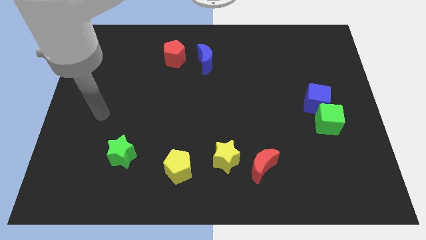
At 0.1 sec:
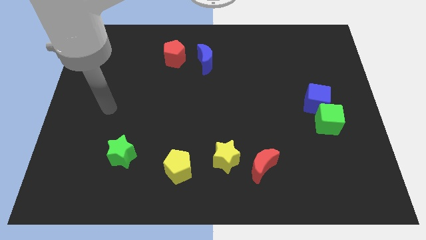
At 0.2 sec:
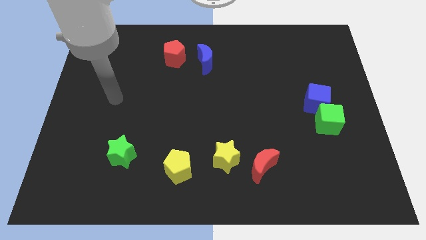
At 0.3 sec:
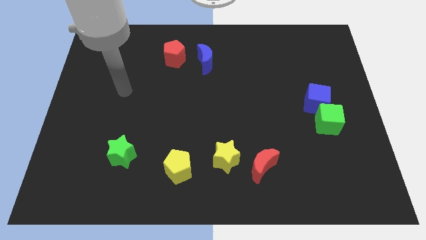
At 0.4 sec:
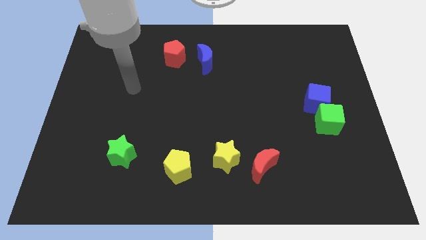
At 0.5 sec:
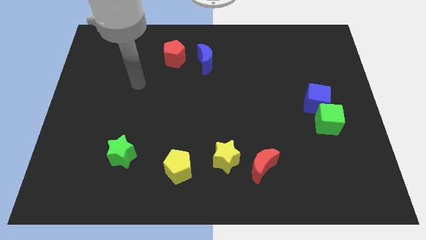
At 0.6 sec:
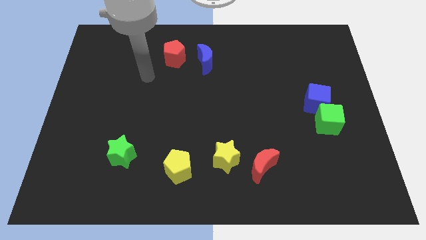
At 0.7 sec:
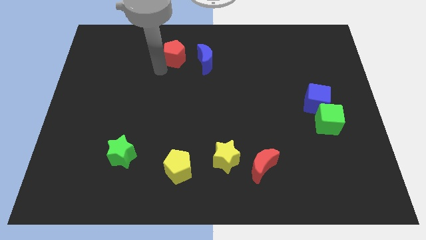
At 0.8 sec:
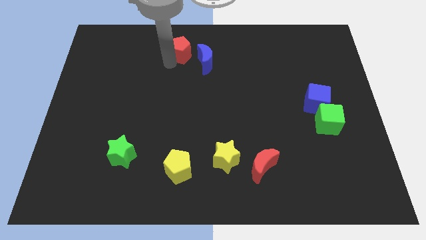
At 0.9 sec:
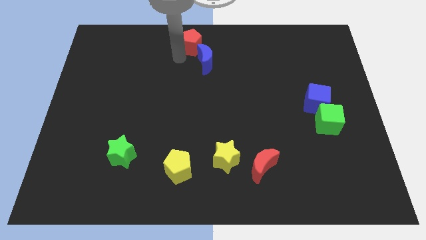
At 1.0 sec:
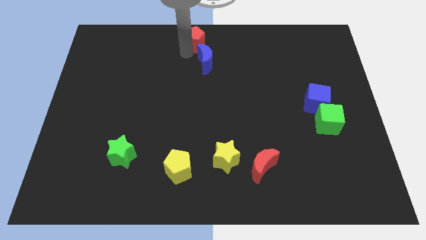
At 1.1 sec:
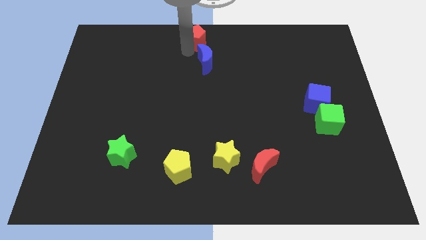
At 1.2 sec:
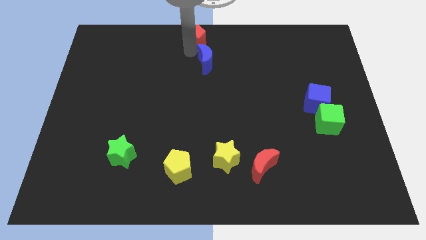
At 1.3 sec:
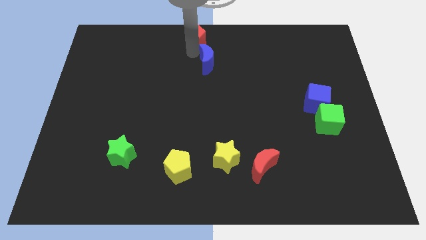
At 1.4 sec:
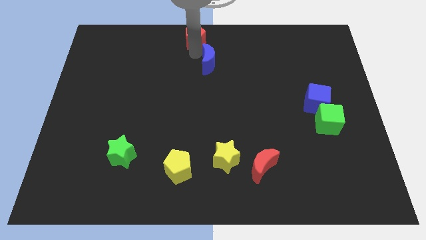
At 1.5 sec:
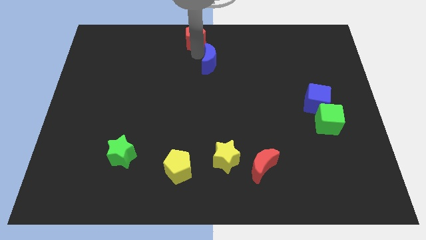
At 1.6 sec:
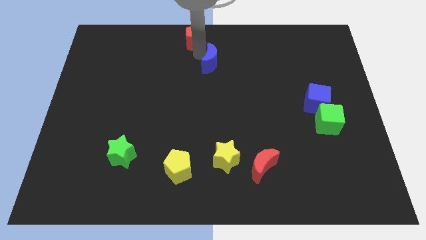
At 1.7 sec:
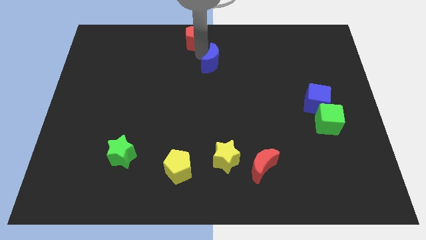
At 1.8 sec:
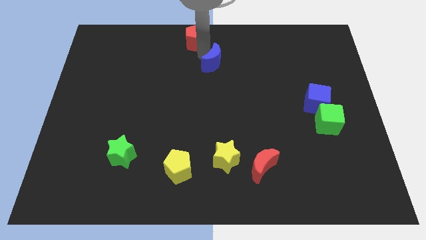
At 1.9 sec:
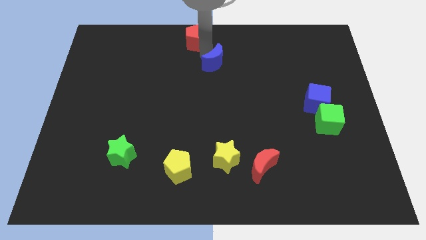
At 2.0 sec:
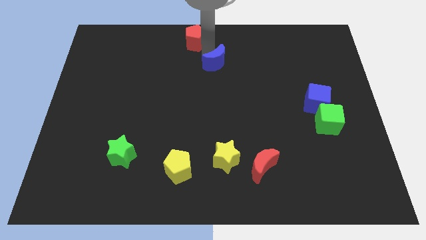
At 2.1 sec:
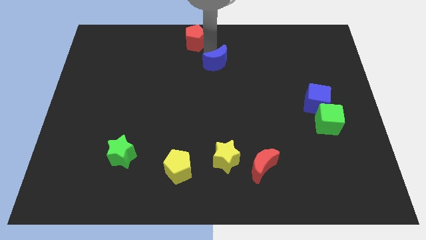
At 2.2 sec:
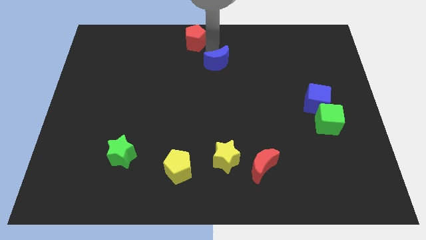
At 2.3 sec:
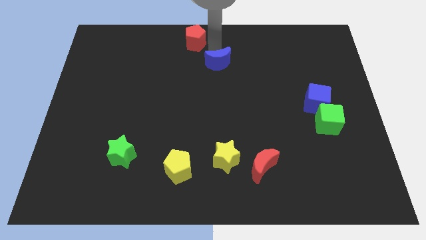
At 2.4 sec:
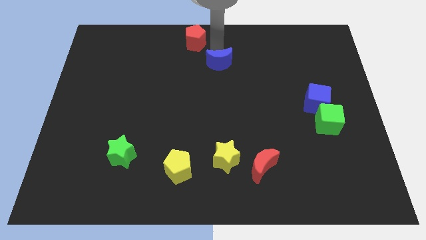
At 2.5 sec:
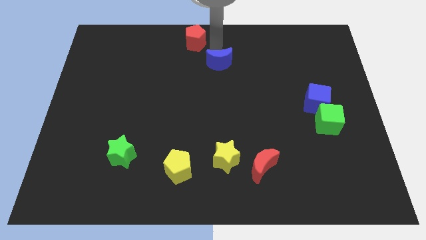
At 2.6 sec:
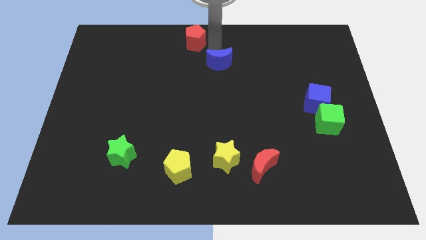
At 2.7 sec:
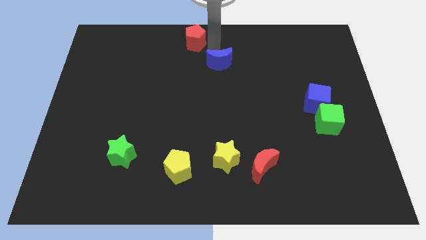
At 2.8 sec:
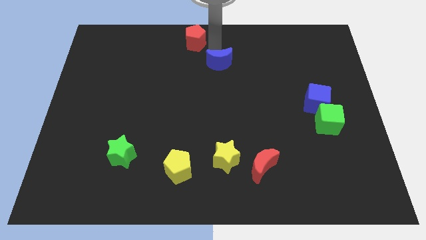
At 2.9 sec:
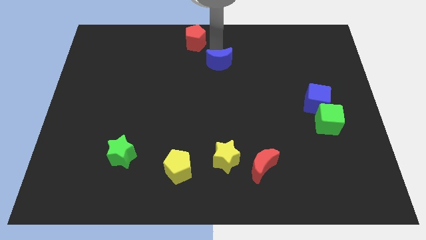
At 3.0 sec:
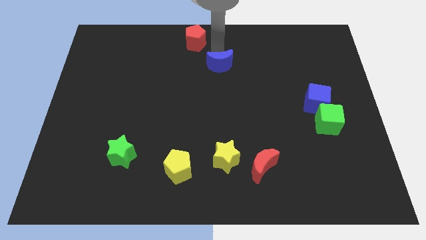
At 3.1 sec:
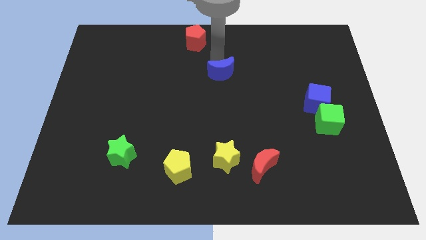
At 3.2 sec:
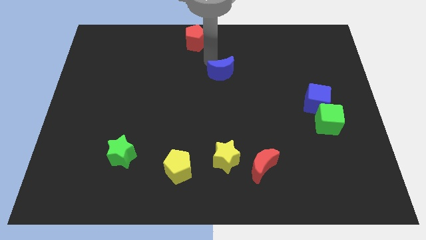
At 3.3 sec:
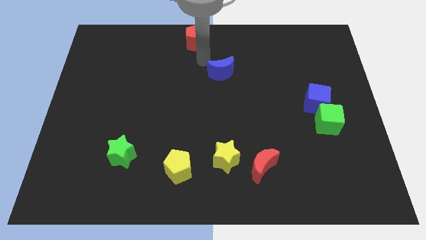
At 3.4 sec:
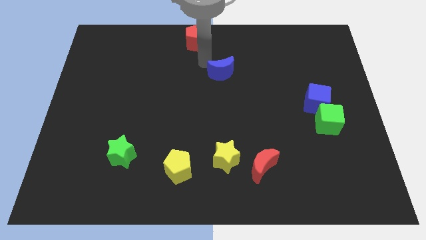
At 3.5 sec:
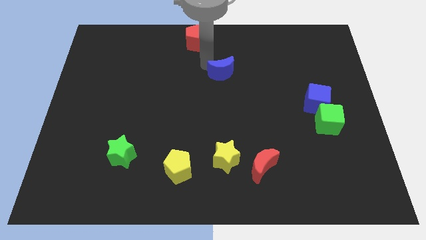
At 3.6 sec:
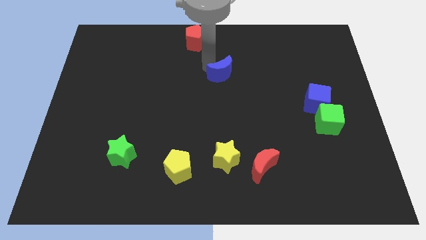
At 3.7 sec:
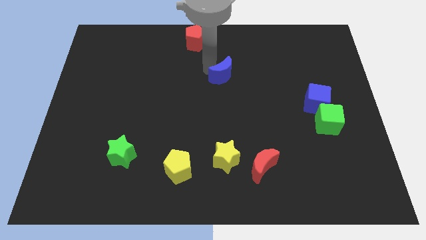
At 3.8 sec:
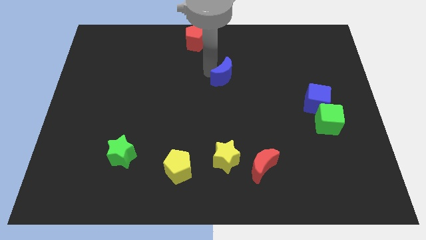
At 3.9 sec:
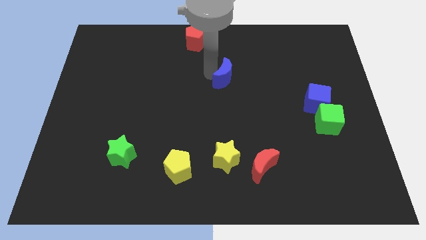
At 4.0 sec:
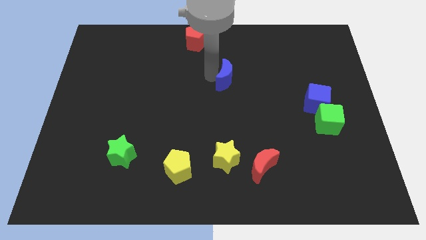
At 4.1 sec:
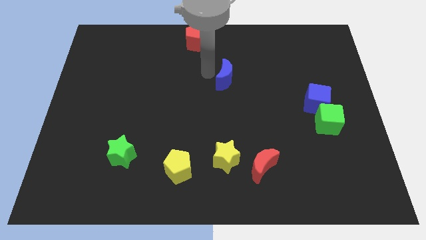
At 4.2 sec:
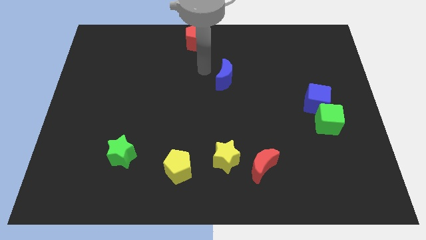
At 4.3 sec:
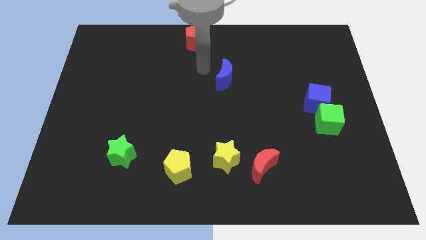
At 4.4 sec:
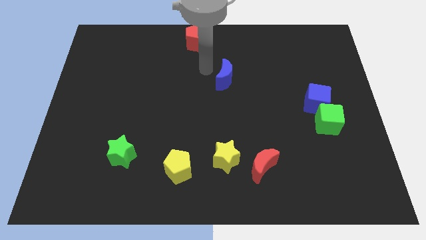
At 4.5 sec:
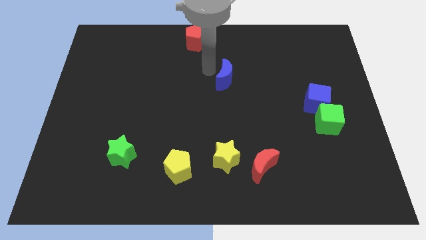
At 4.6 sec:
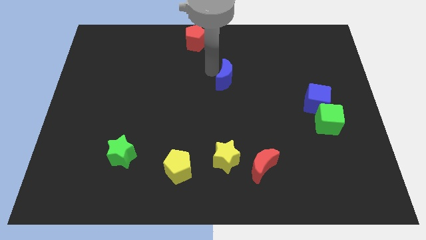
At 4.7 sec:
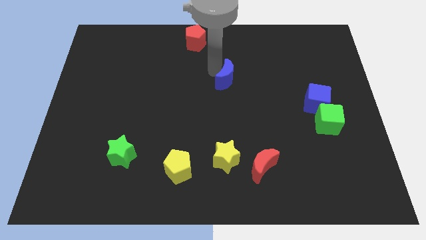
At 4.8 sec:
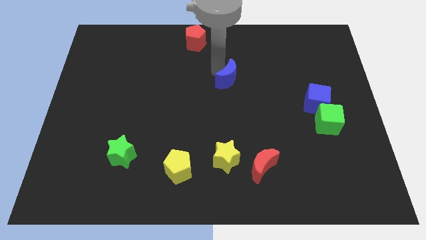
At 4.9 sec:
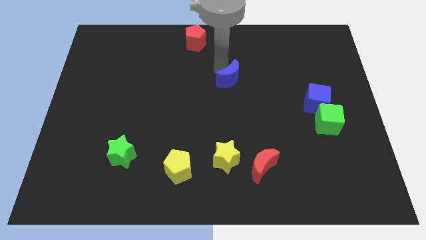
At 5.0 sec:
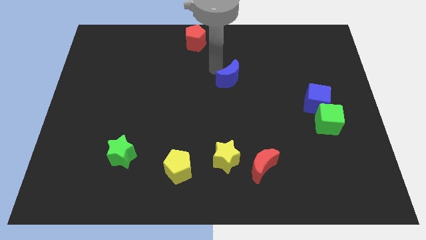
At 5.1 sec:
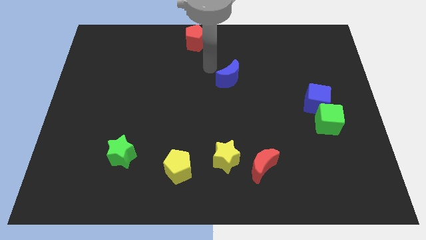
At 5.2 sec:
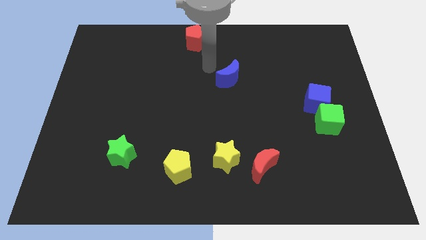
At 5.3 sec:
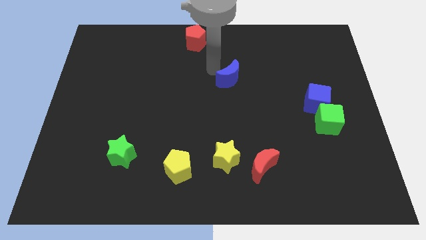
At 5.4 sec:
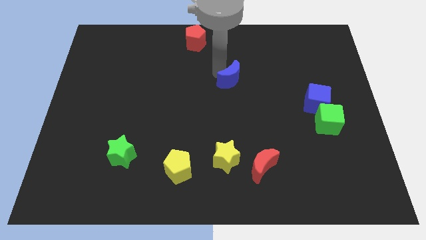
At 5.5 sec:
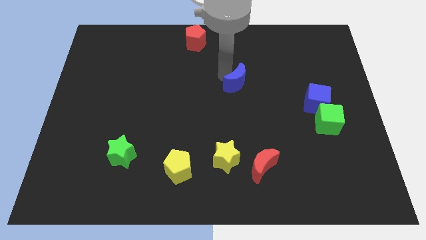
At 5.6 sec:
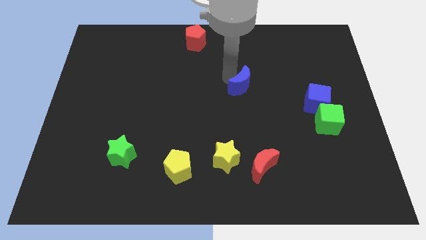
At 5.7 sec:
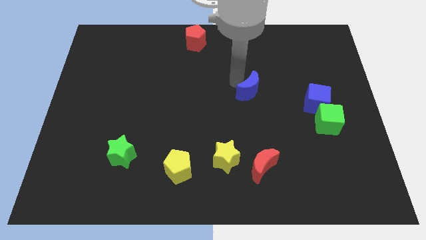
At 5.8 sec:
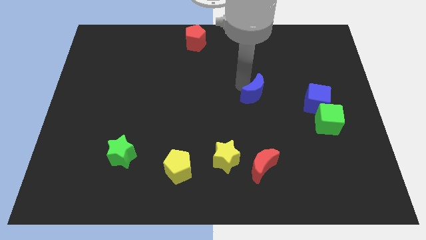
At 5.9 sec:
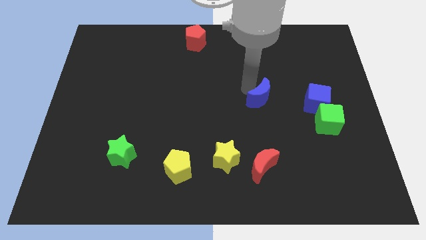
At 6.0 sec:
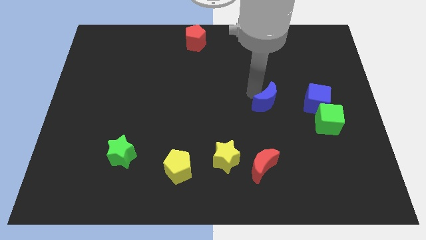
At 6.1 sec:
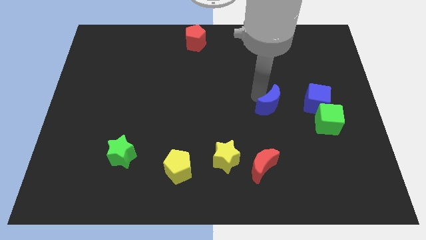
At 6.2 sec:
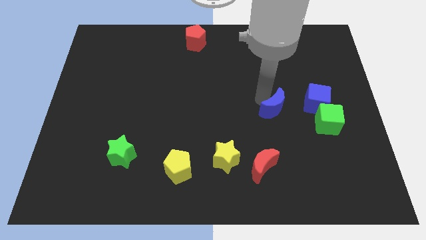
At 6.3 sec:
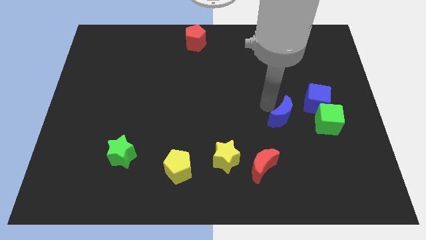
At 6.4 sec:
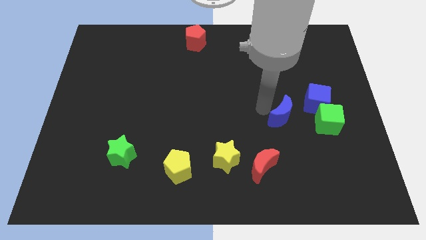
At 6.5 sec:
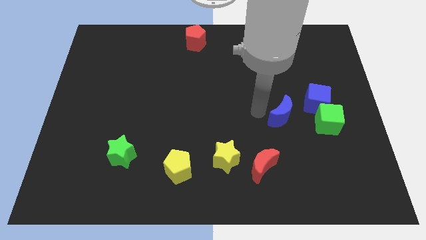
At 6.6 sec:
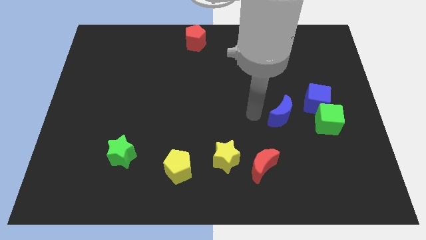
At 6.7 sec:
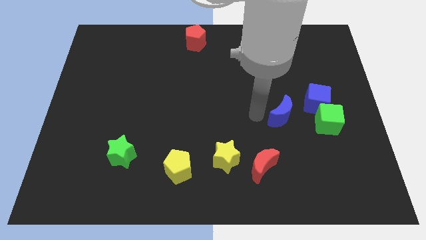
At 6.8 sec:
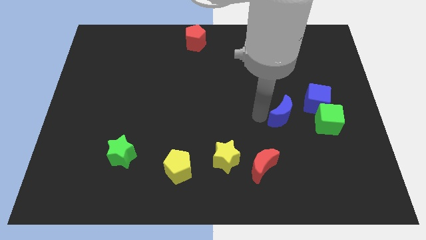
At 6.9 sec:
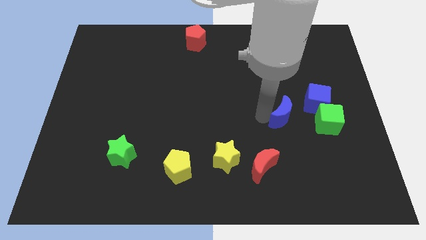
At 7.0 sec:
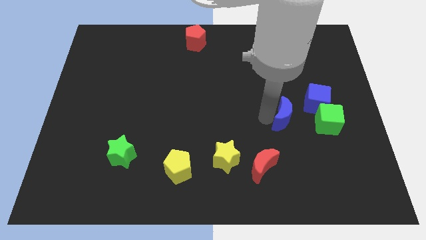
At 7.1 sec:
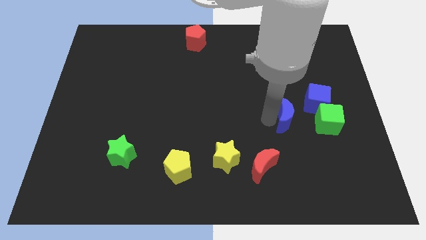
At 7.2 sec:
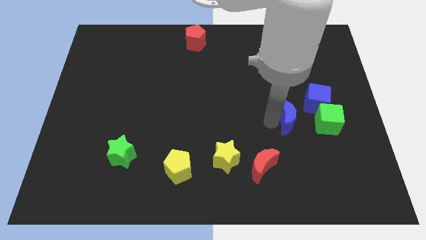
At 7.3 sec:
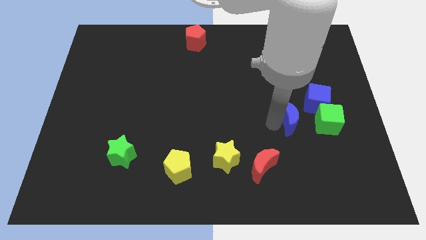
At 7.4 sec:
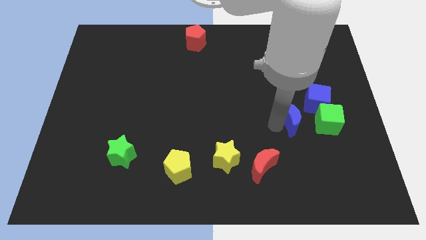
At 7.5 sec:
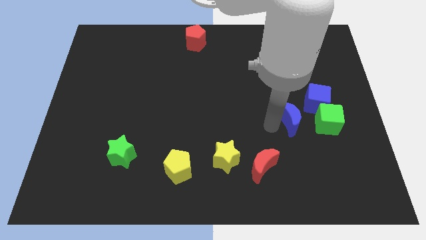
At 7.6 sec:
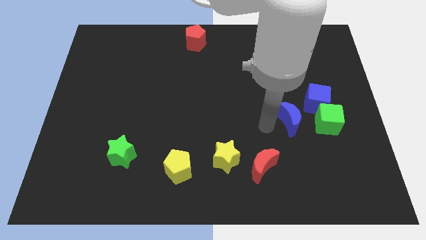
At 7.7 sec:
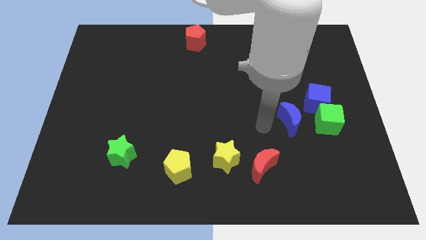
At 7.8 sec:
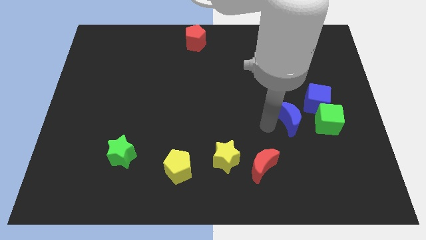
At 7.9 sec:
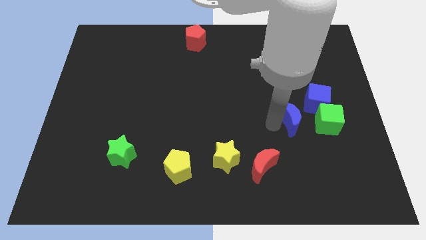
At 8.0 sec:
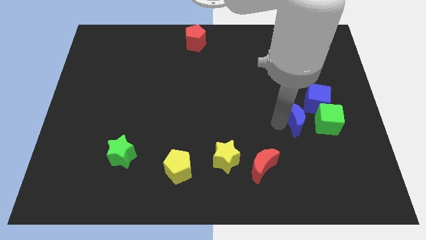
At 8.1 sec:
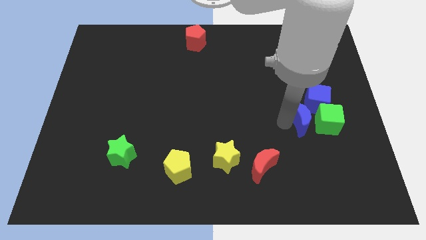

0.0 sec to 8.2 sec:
push the blue moon towards the green cube
